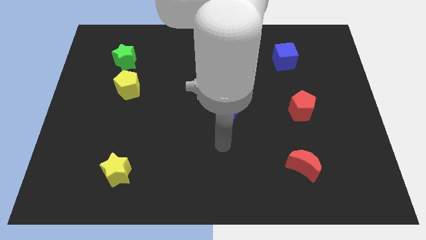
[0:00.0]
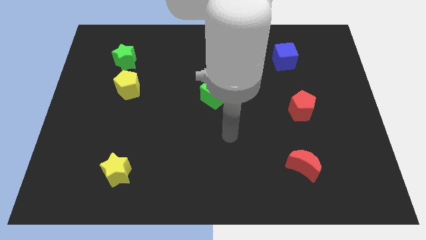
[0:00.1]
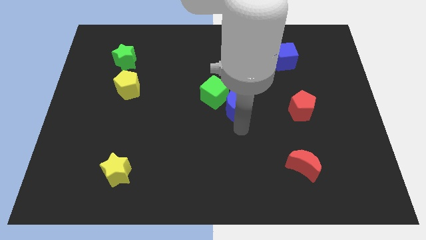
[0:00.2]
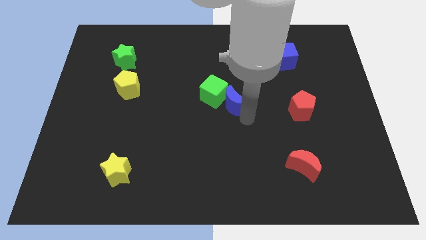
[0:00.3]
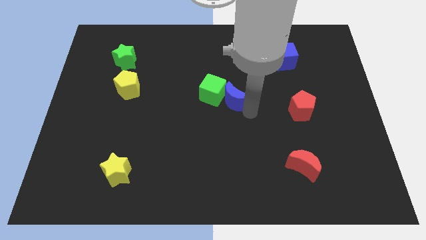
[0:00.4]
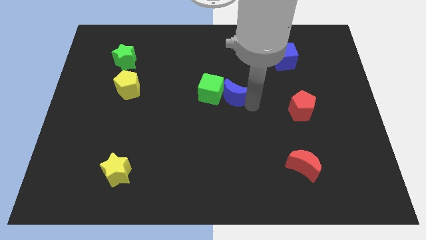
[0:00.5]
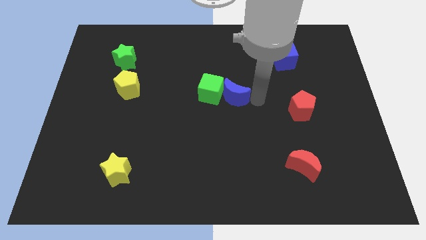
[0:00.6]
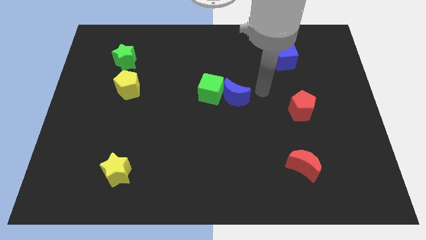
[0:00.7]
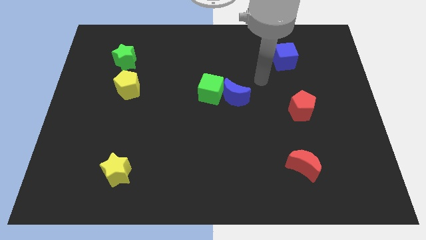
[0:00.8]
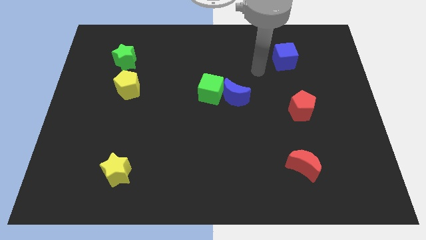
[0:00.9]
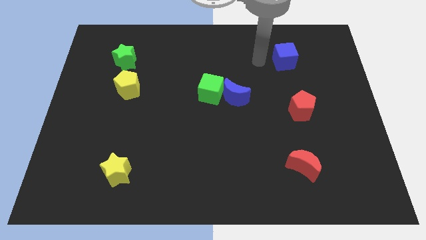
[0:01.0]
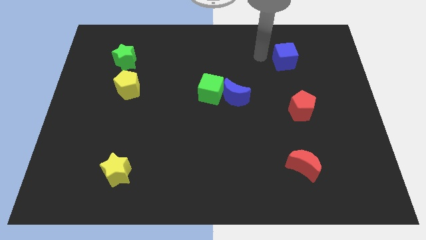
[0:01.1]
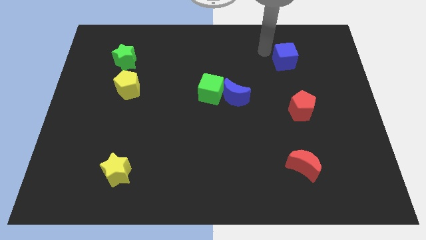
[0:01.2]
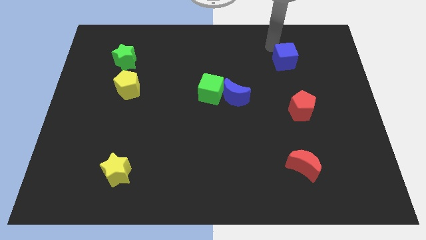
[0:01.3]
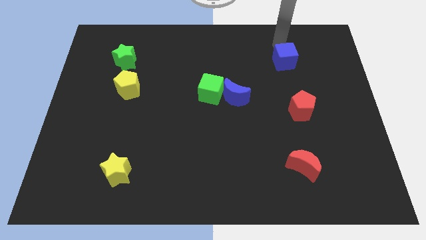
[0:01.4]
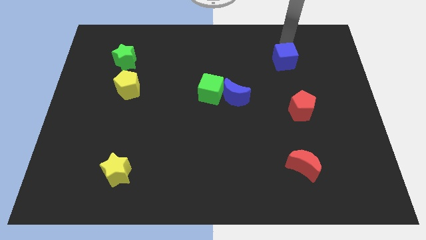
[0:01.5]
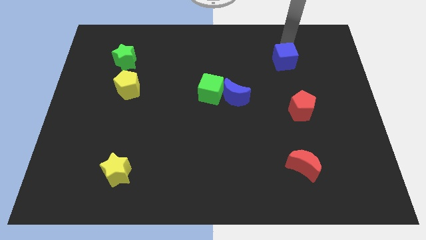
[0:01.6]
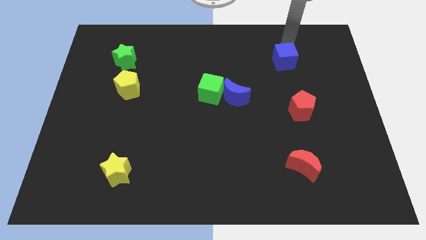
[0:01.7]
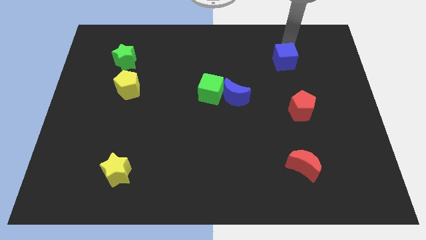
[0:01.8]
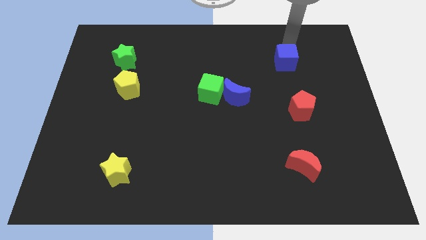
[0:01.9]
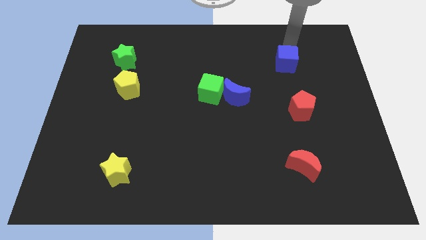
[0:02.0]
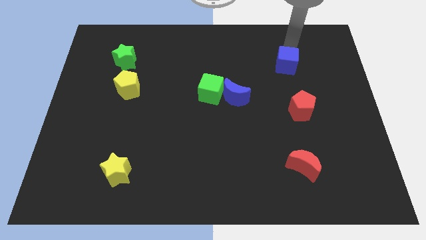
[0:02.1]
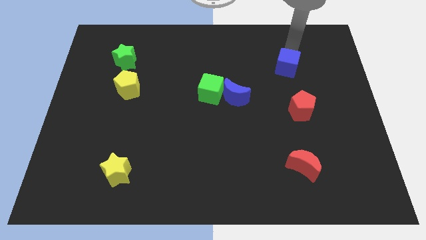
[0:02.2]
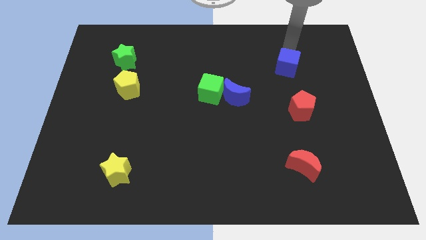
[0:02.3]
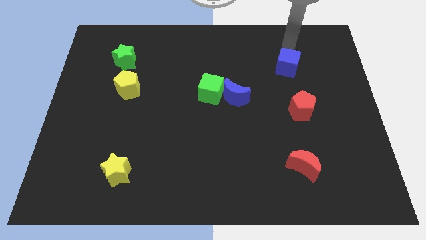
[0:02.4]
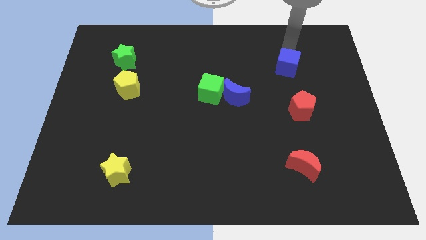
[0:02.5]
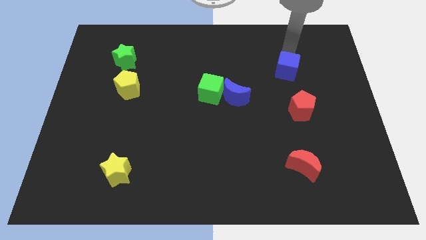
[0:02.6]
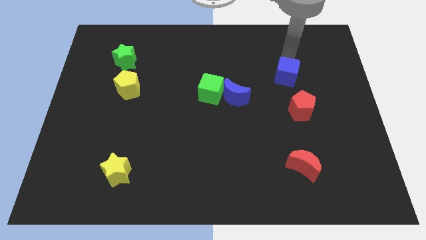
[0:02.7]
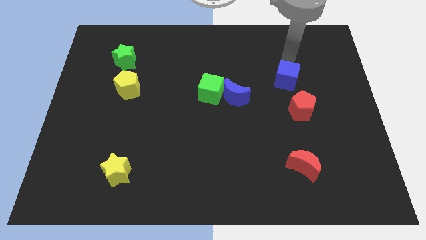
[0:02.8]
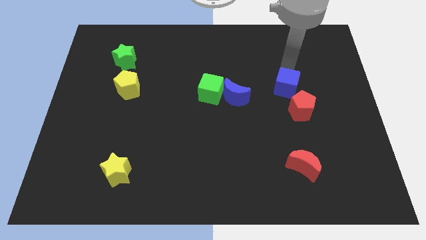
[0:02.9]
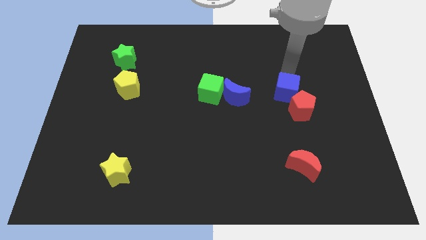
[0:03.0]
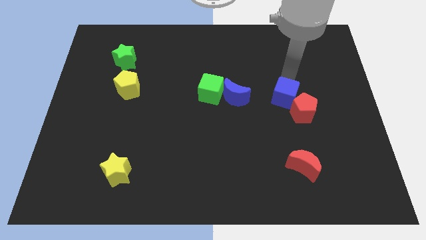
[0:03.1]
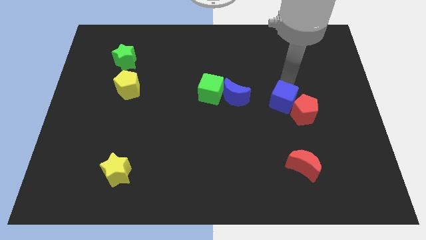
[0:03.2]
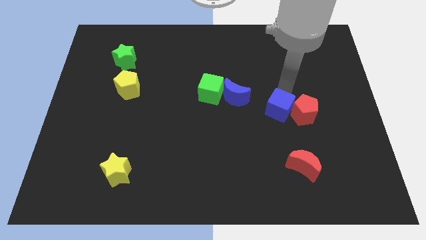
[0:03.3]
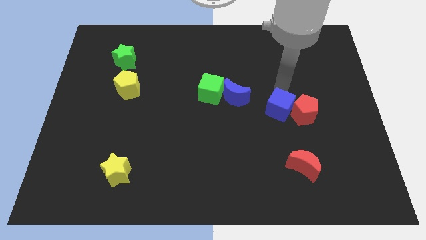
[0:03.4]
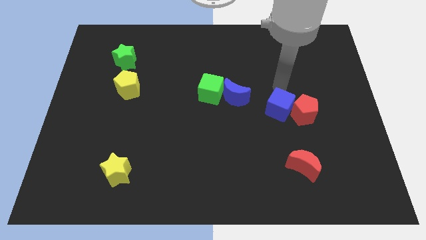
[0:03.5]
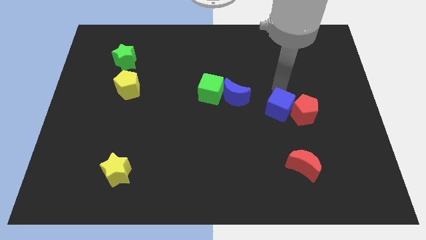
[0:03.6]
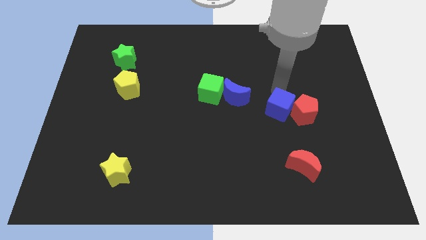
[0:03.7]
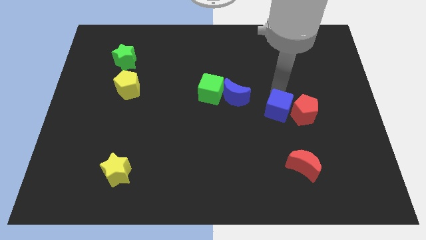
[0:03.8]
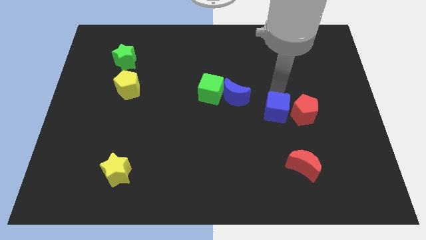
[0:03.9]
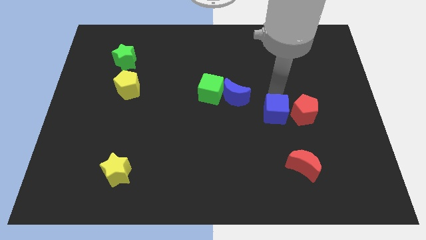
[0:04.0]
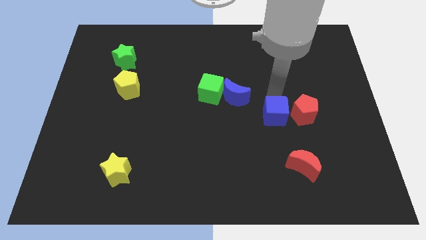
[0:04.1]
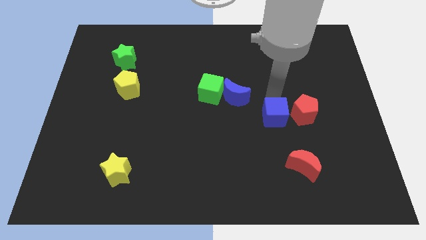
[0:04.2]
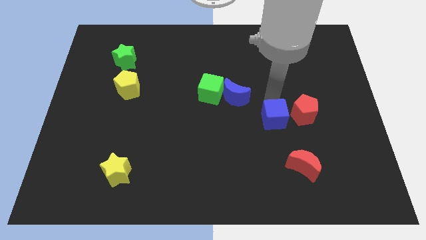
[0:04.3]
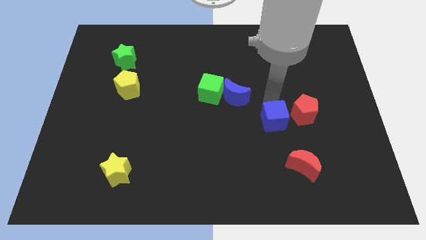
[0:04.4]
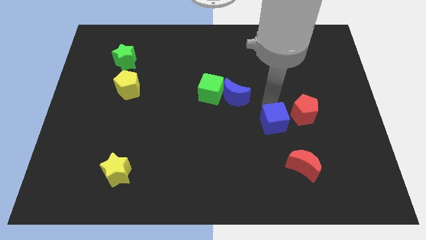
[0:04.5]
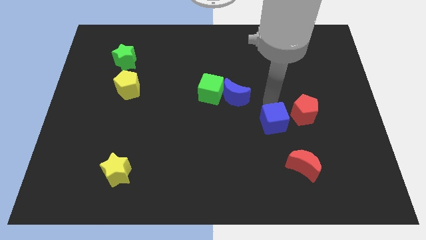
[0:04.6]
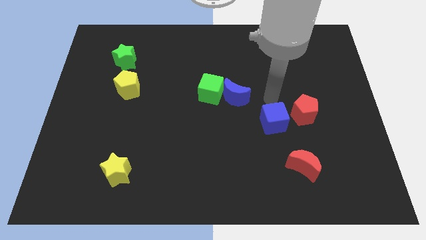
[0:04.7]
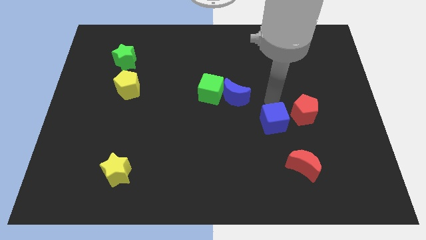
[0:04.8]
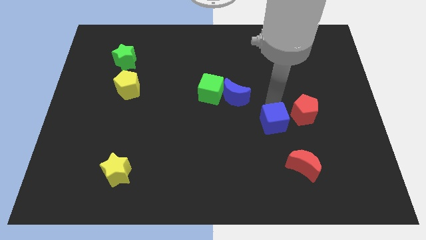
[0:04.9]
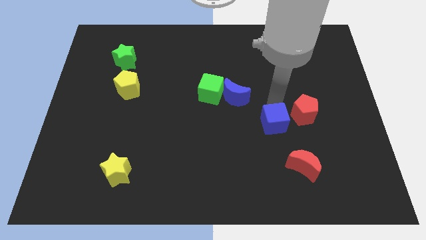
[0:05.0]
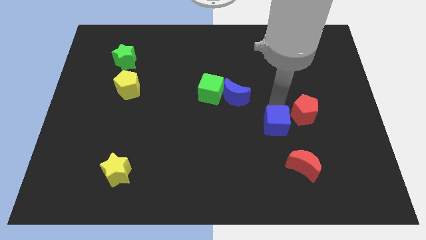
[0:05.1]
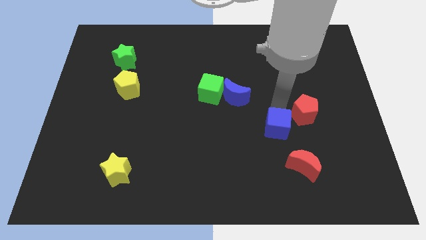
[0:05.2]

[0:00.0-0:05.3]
push the blue cube to the top left of the red moon

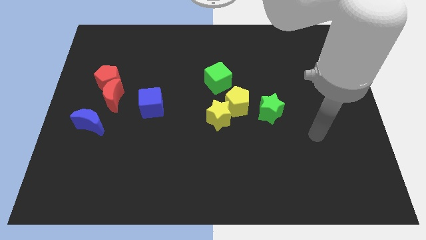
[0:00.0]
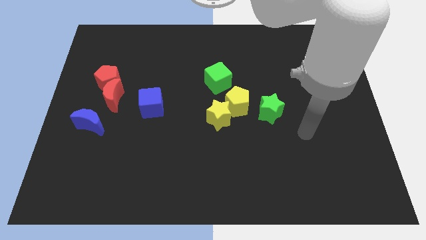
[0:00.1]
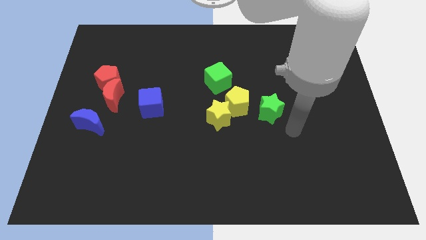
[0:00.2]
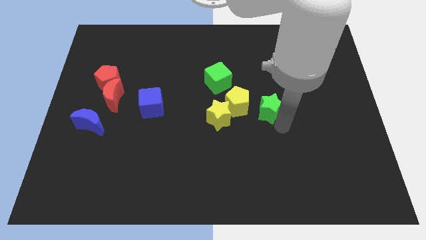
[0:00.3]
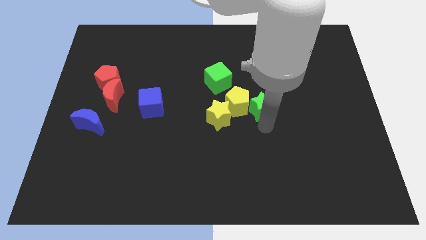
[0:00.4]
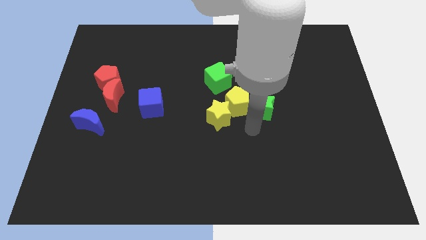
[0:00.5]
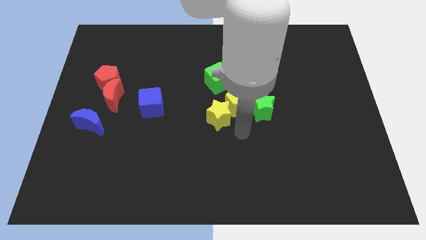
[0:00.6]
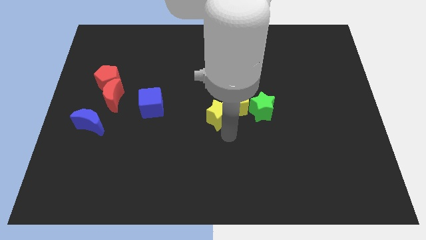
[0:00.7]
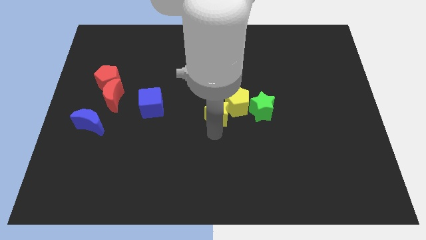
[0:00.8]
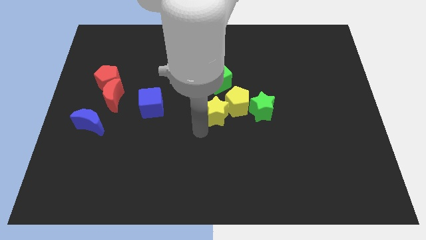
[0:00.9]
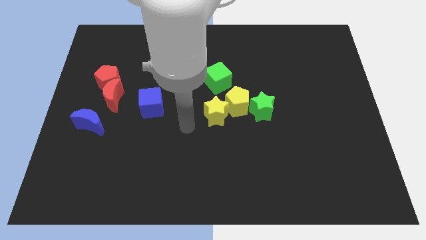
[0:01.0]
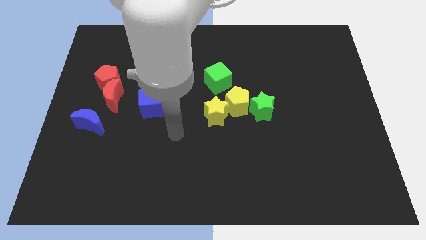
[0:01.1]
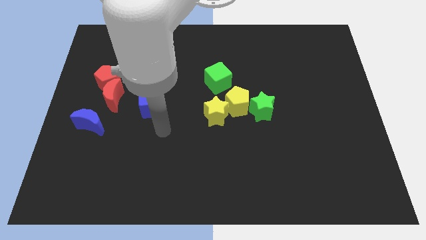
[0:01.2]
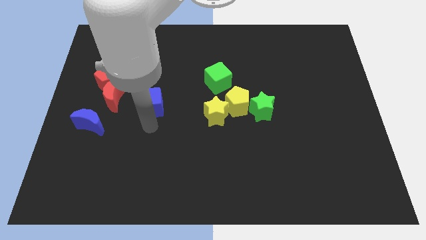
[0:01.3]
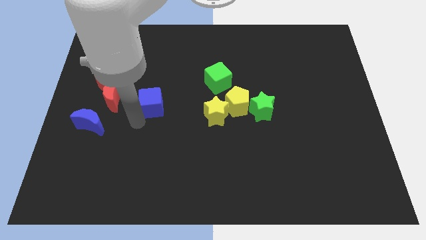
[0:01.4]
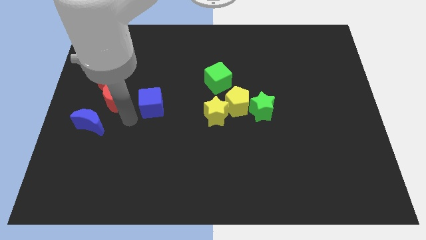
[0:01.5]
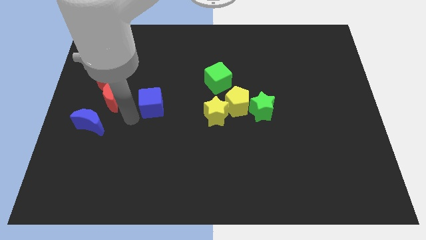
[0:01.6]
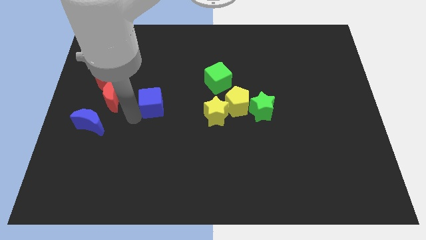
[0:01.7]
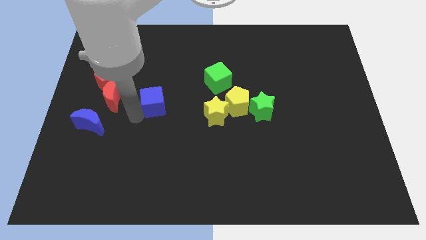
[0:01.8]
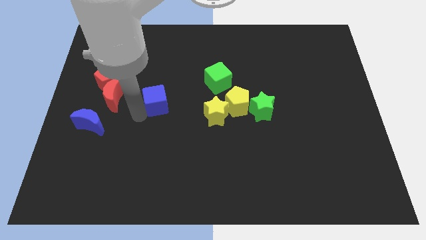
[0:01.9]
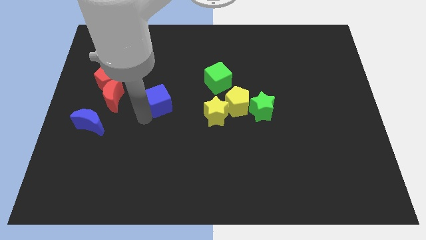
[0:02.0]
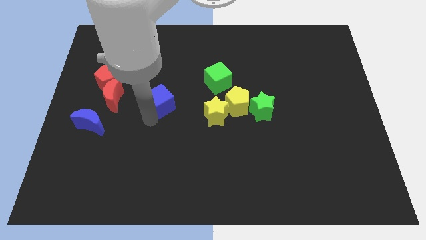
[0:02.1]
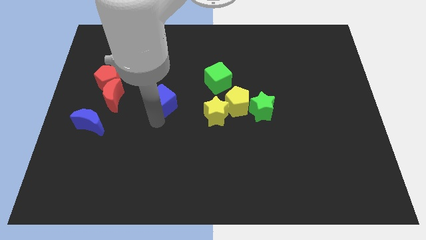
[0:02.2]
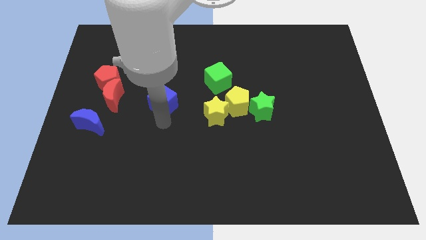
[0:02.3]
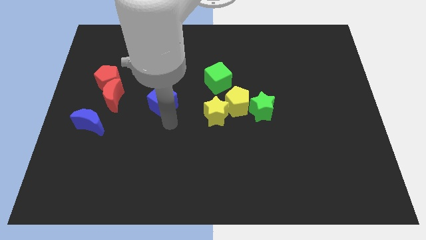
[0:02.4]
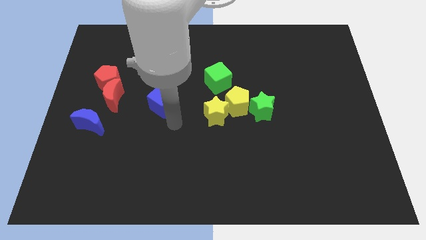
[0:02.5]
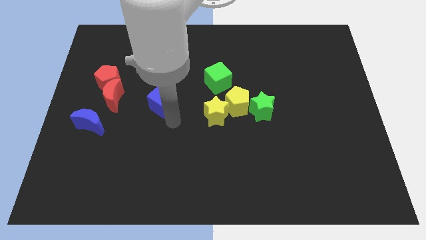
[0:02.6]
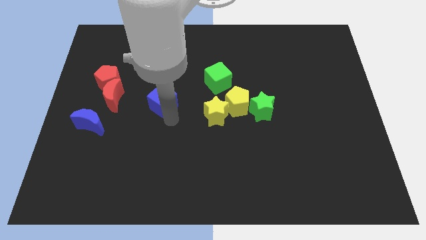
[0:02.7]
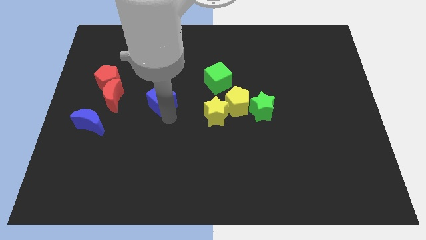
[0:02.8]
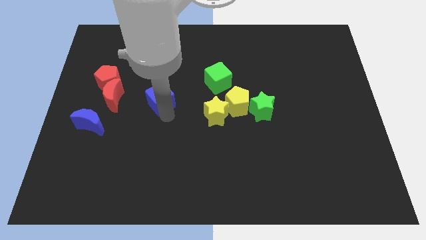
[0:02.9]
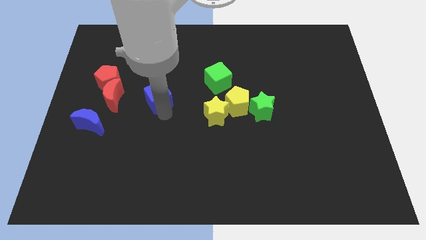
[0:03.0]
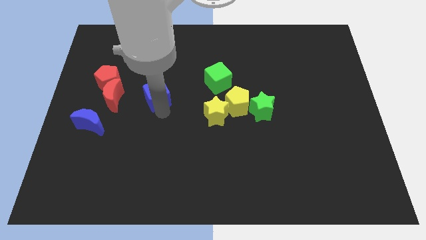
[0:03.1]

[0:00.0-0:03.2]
put the blue cube to the right side of the red pentagon
